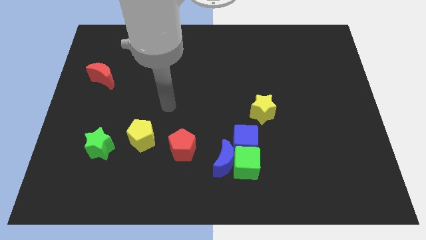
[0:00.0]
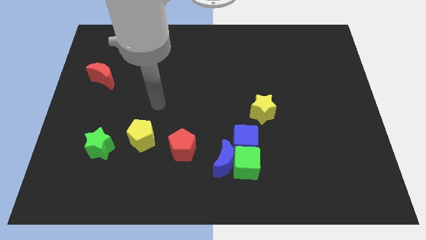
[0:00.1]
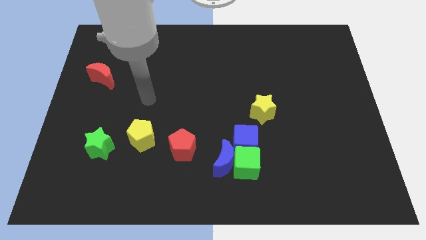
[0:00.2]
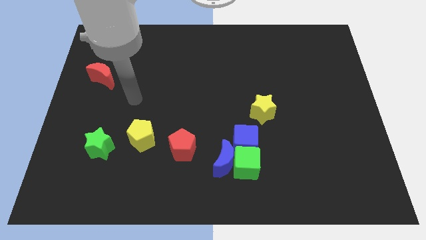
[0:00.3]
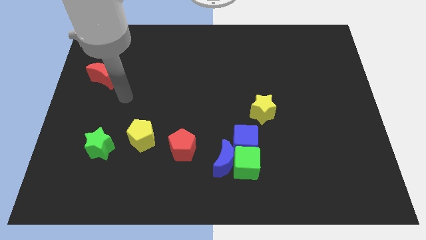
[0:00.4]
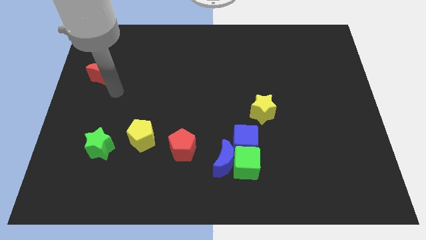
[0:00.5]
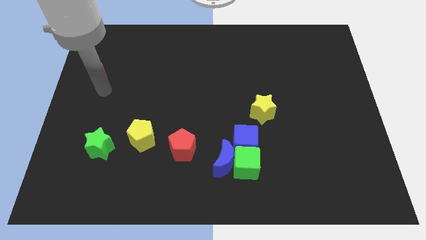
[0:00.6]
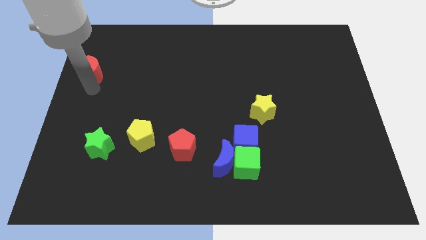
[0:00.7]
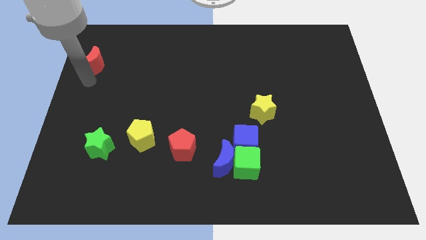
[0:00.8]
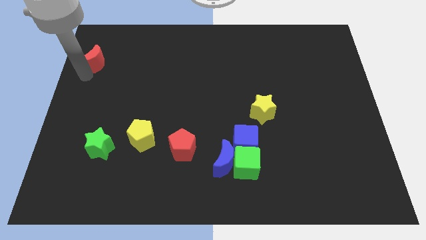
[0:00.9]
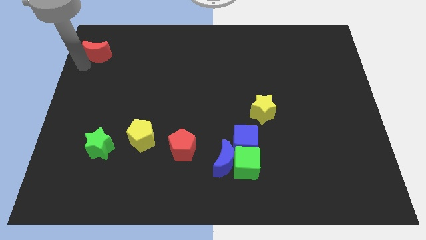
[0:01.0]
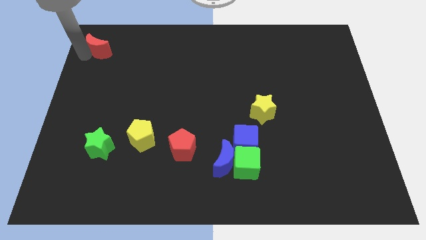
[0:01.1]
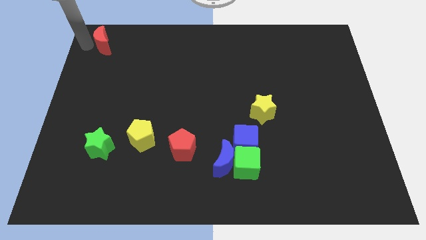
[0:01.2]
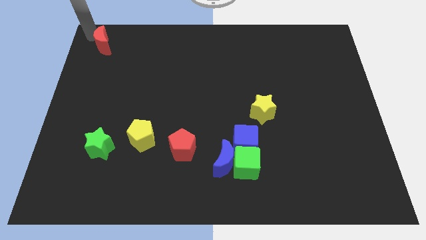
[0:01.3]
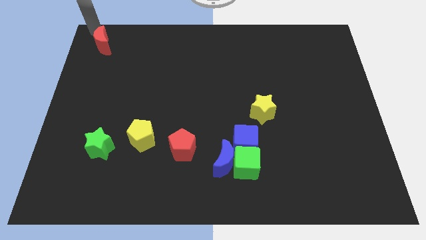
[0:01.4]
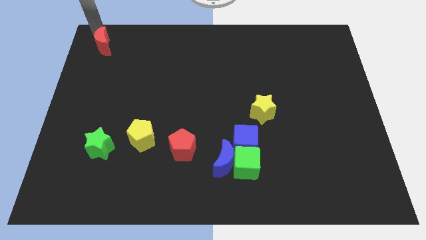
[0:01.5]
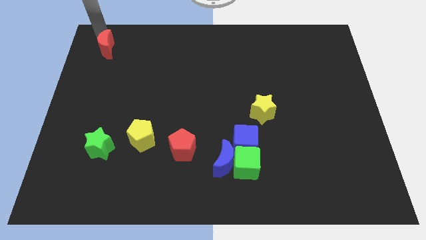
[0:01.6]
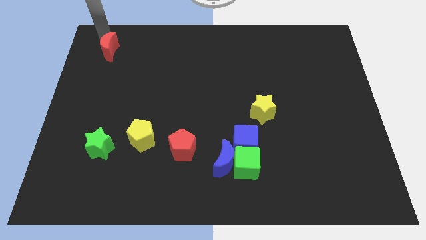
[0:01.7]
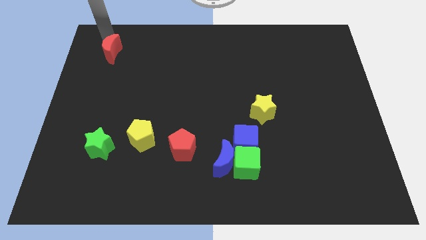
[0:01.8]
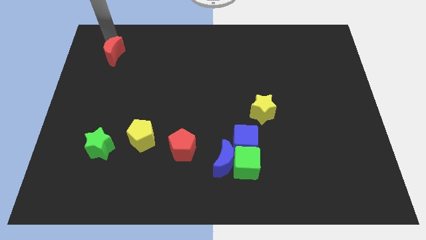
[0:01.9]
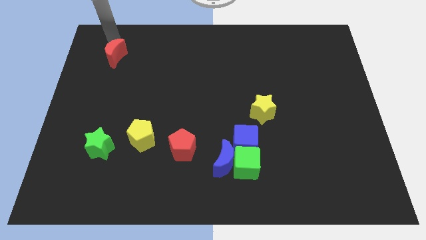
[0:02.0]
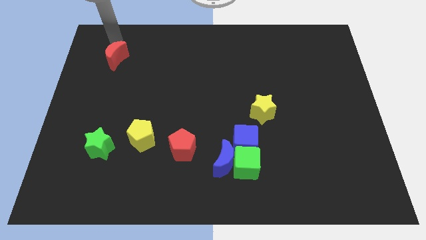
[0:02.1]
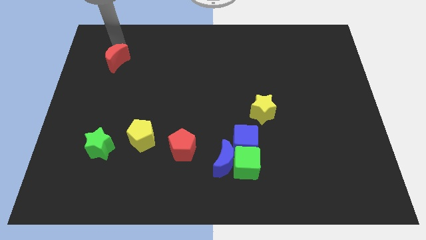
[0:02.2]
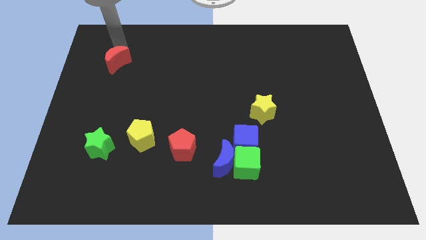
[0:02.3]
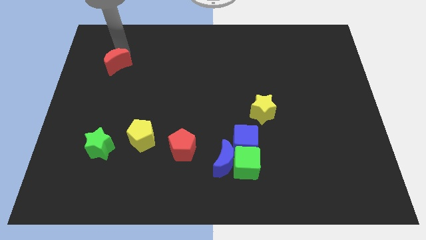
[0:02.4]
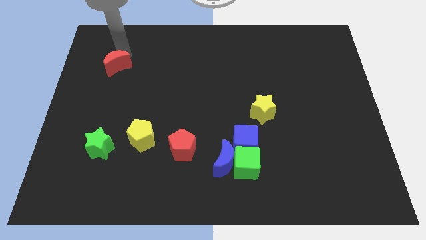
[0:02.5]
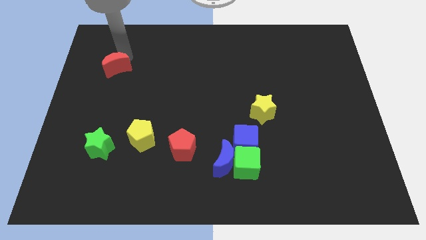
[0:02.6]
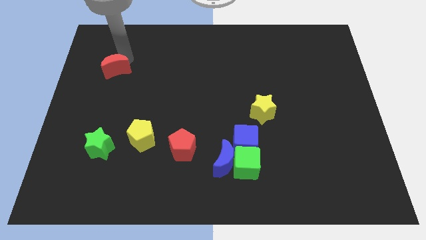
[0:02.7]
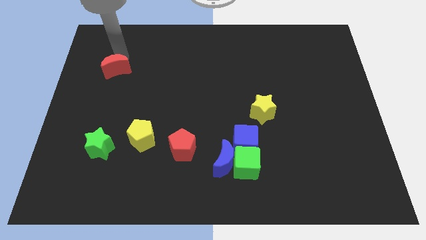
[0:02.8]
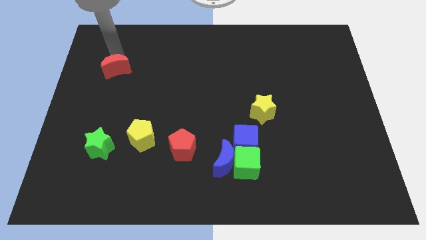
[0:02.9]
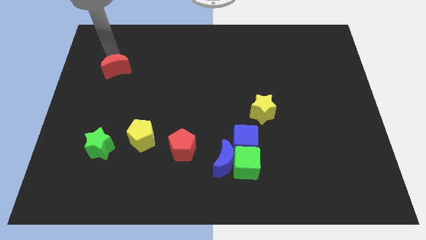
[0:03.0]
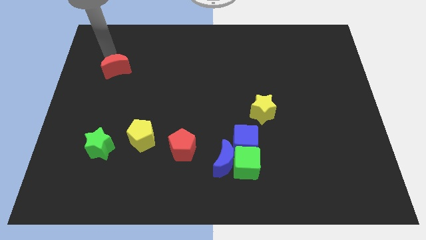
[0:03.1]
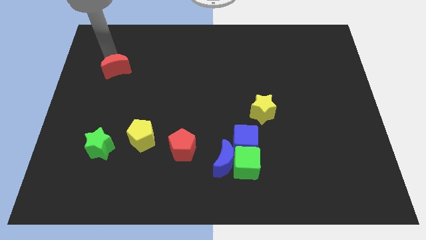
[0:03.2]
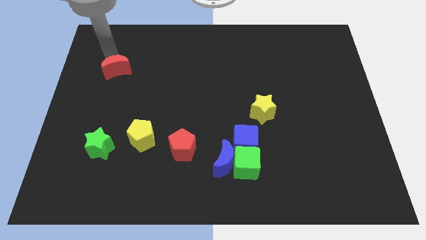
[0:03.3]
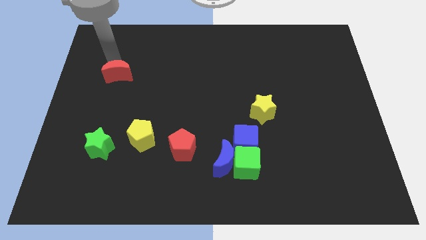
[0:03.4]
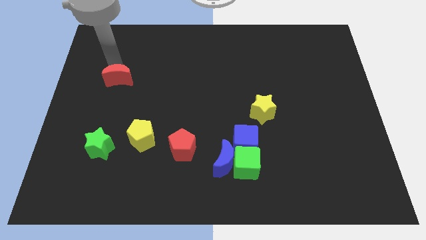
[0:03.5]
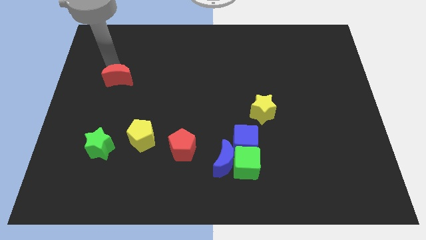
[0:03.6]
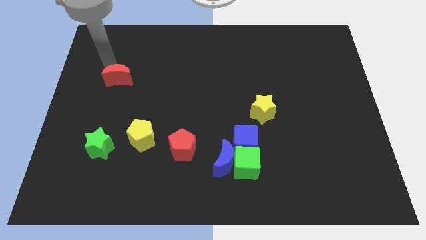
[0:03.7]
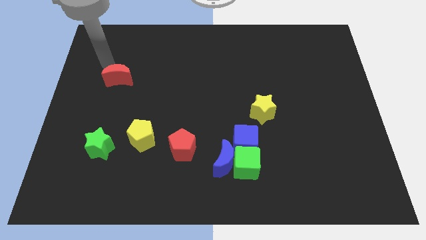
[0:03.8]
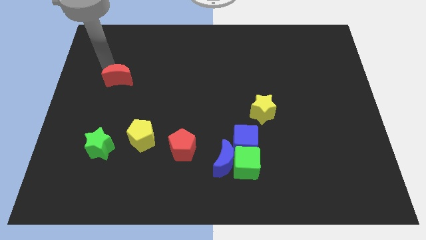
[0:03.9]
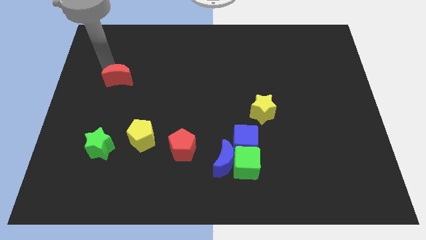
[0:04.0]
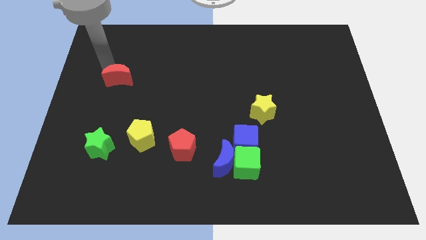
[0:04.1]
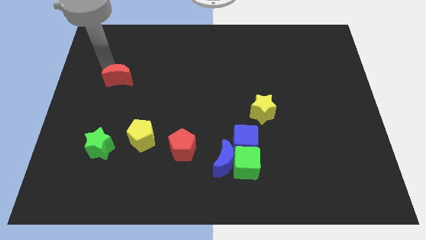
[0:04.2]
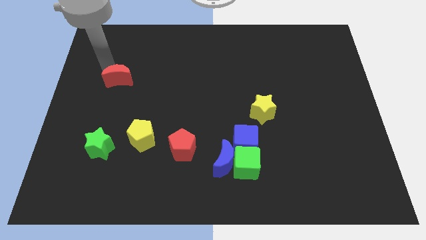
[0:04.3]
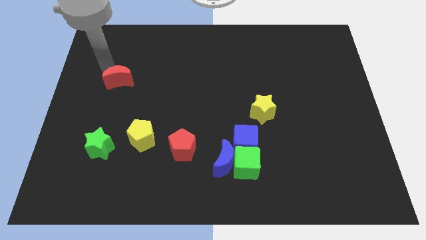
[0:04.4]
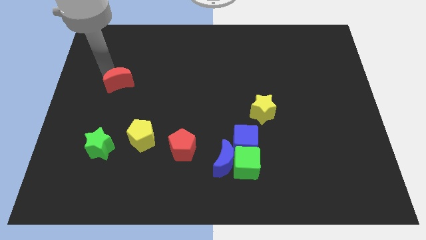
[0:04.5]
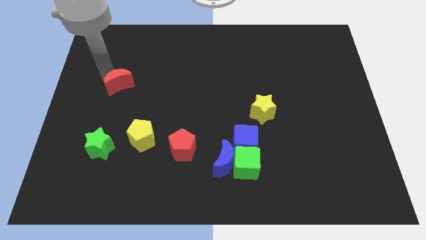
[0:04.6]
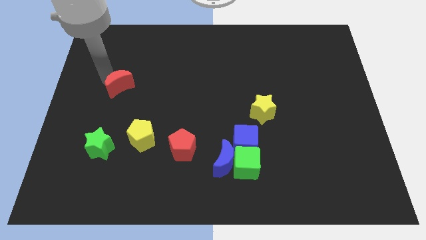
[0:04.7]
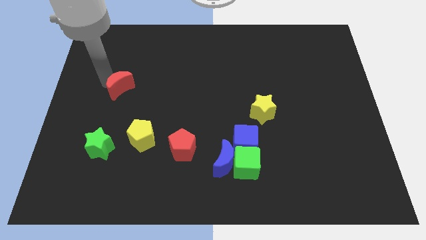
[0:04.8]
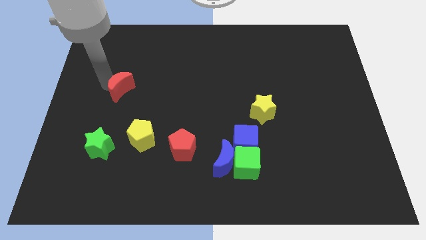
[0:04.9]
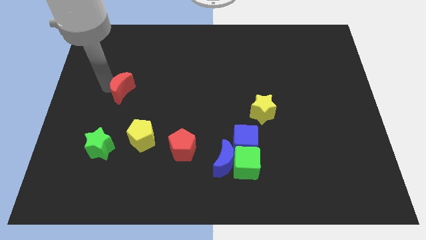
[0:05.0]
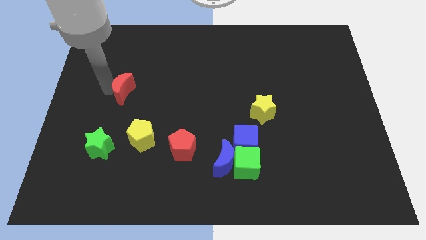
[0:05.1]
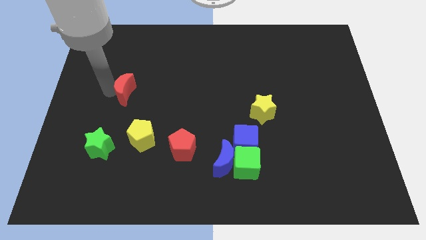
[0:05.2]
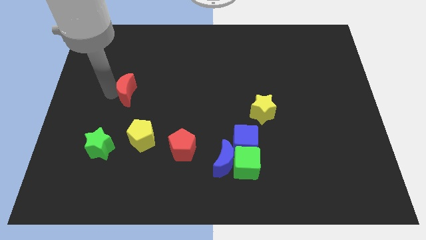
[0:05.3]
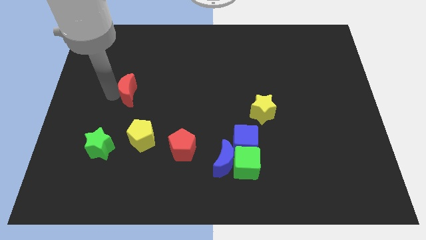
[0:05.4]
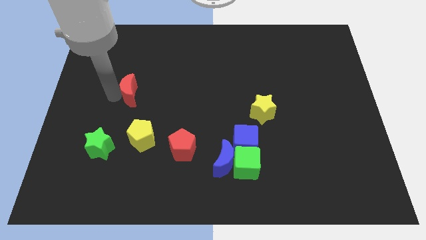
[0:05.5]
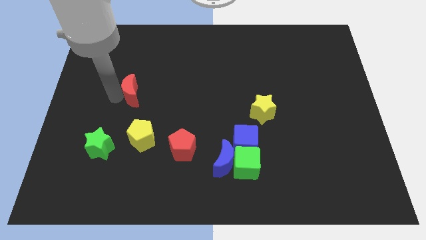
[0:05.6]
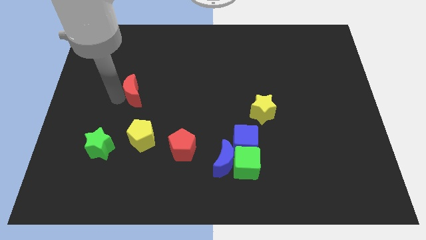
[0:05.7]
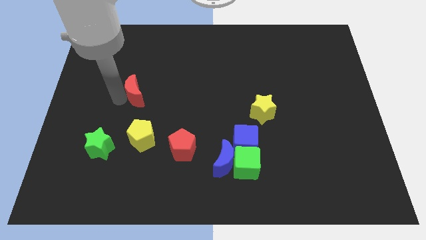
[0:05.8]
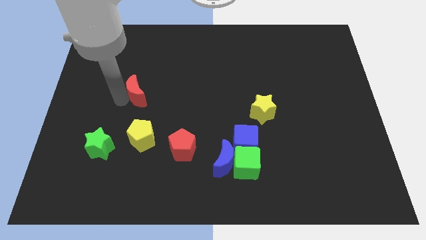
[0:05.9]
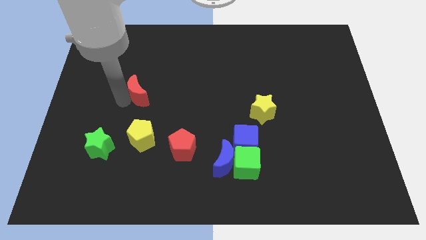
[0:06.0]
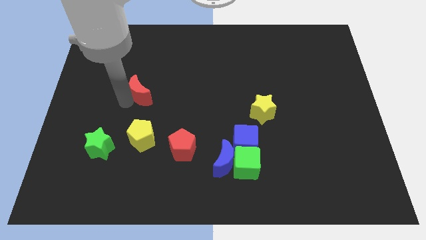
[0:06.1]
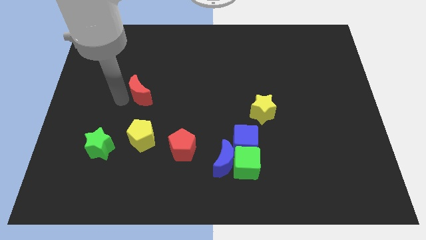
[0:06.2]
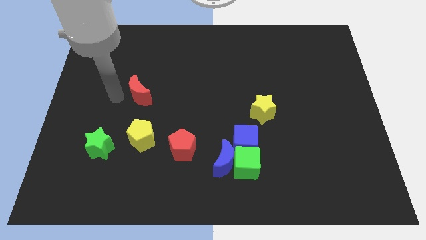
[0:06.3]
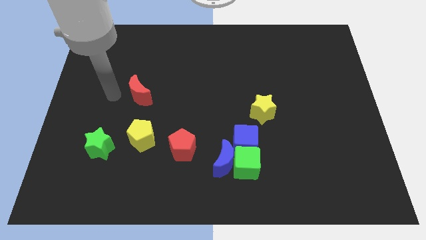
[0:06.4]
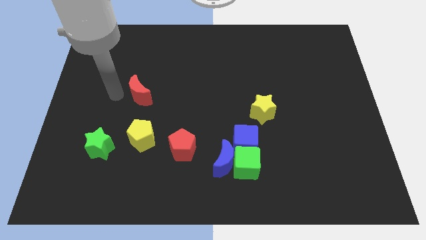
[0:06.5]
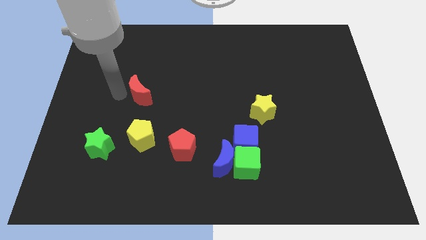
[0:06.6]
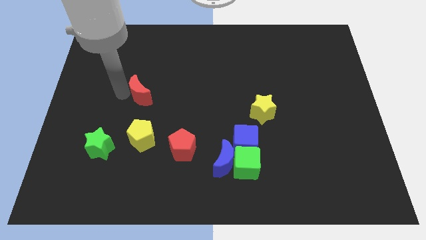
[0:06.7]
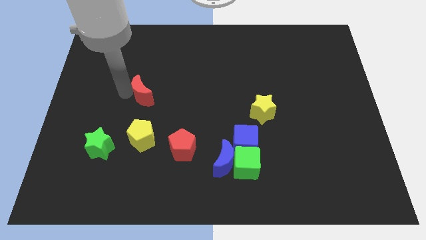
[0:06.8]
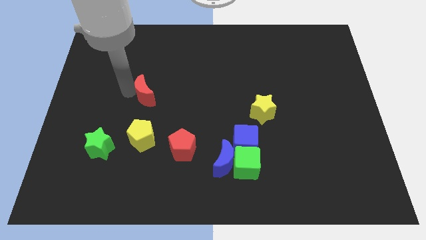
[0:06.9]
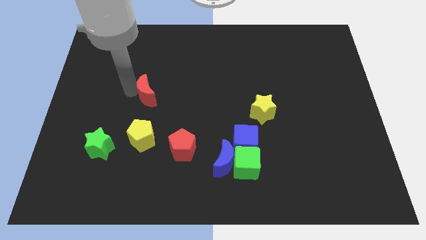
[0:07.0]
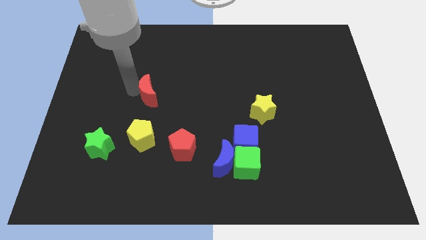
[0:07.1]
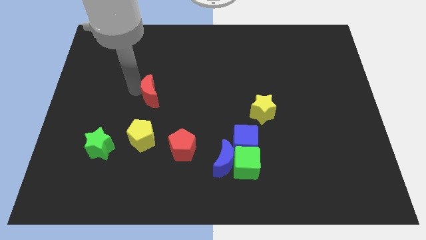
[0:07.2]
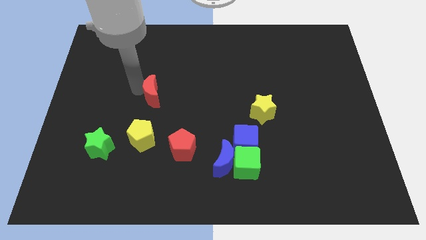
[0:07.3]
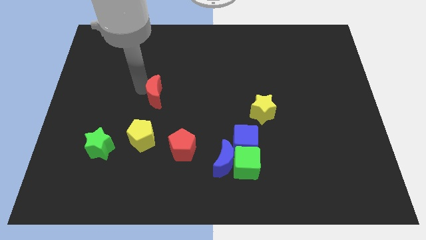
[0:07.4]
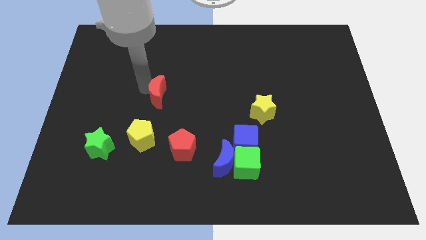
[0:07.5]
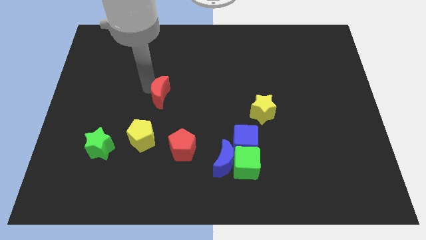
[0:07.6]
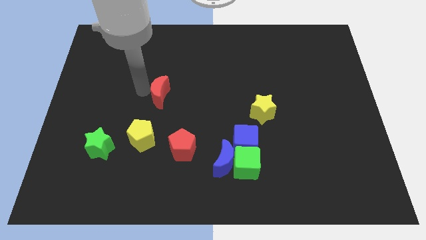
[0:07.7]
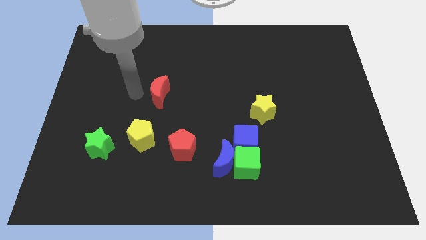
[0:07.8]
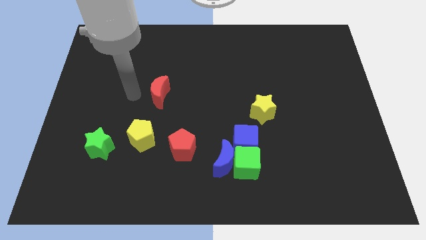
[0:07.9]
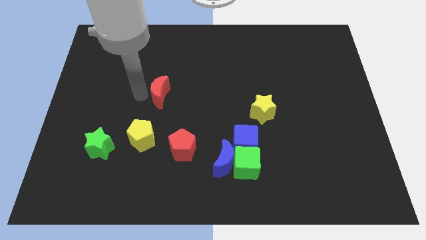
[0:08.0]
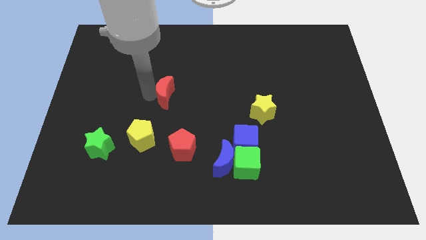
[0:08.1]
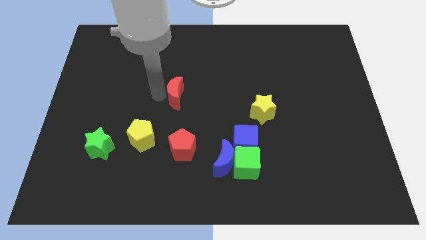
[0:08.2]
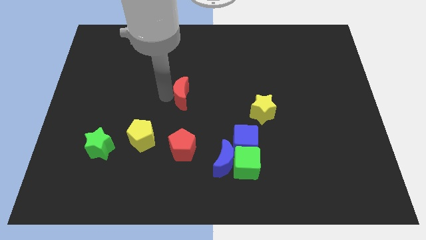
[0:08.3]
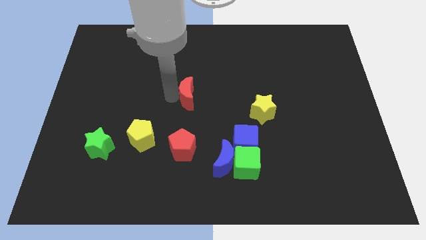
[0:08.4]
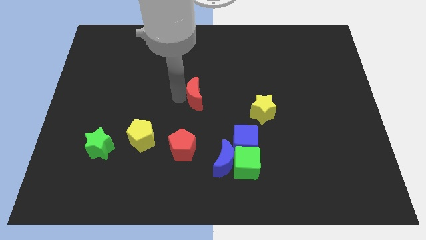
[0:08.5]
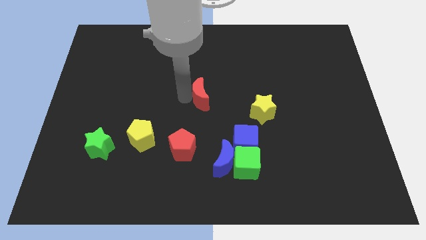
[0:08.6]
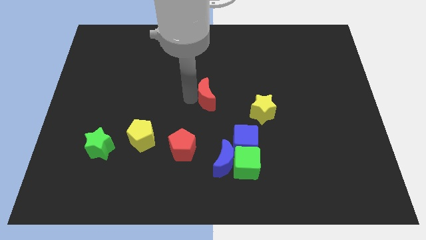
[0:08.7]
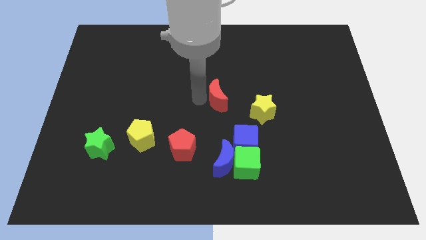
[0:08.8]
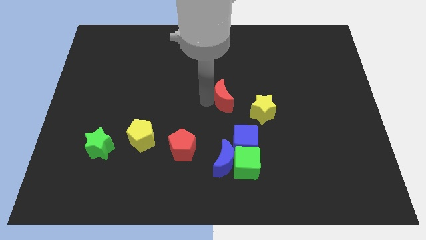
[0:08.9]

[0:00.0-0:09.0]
move the red moon diagonally up and to the left of the yellow star
